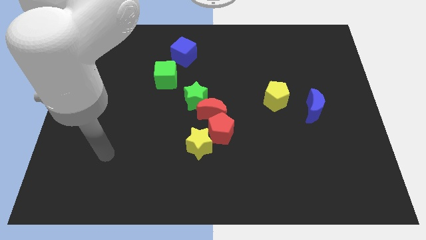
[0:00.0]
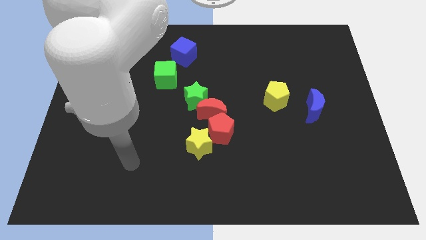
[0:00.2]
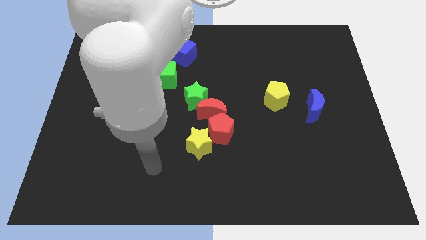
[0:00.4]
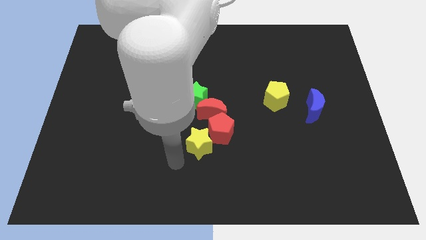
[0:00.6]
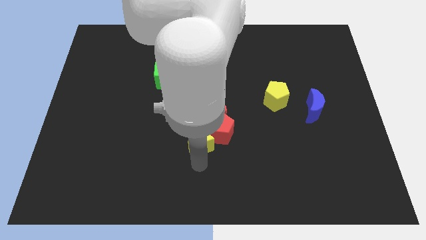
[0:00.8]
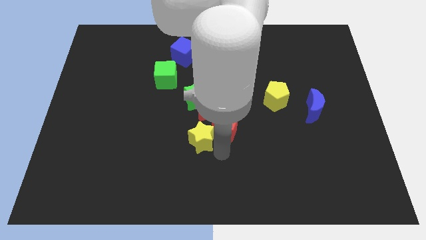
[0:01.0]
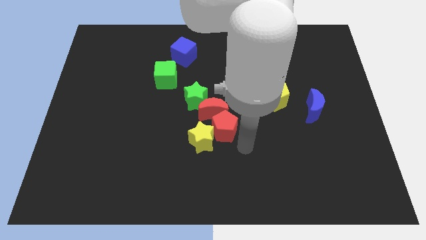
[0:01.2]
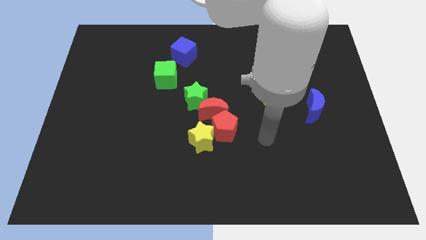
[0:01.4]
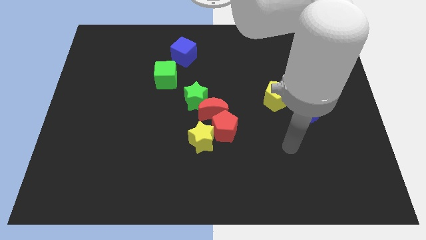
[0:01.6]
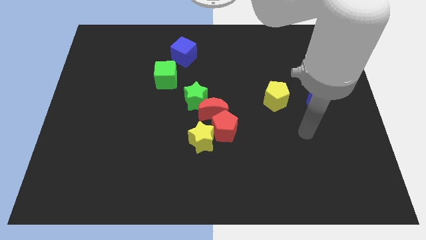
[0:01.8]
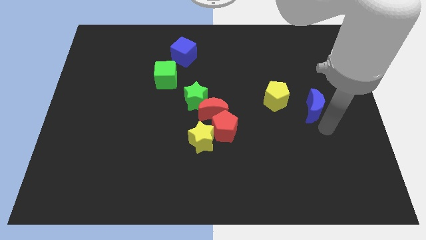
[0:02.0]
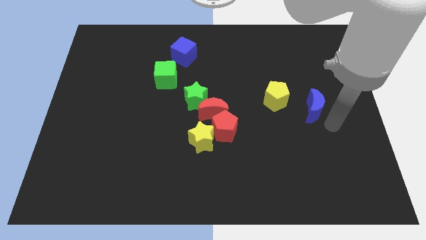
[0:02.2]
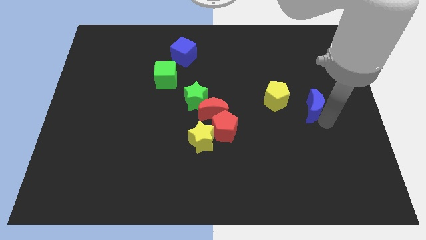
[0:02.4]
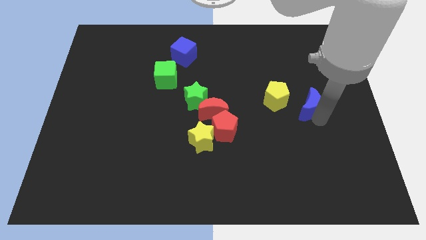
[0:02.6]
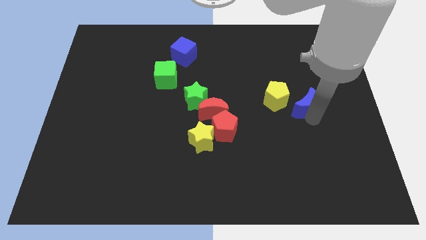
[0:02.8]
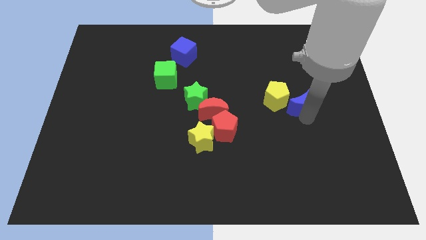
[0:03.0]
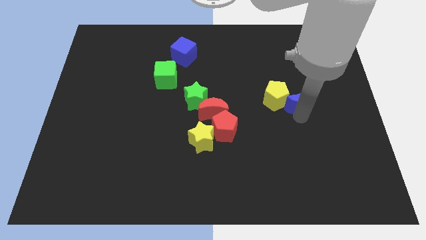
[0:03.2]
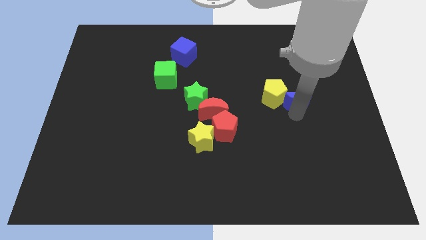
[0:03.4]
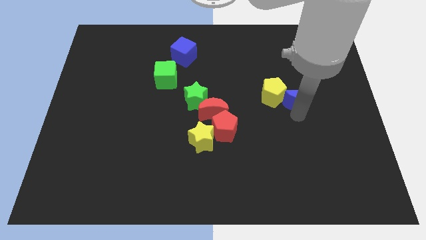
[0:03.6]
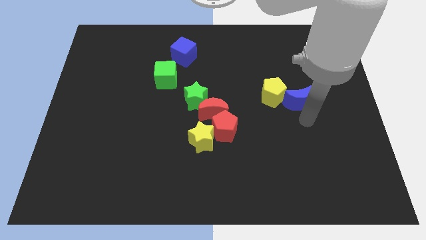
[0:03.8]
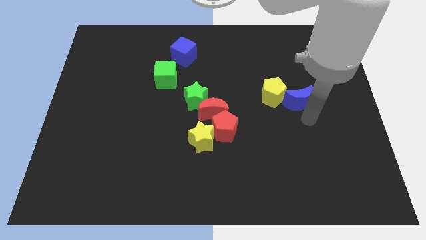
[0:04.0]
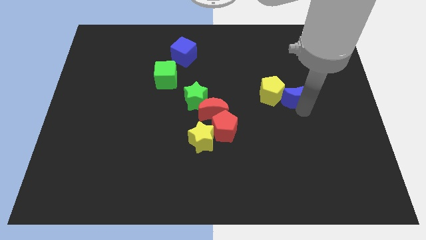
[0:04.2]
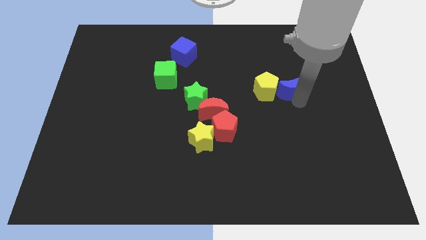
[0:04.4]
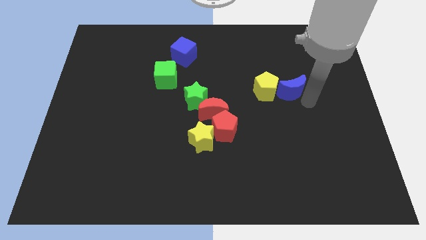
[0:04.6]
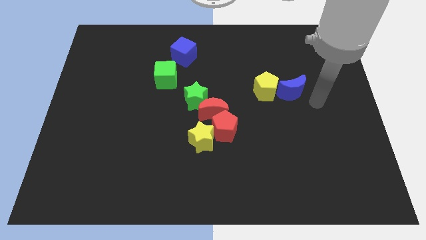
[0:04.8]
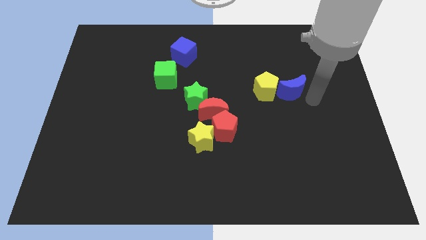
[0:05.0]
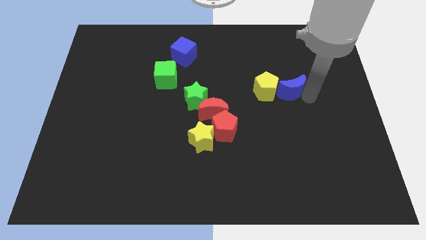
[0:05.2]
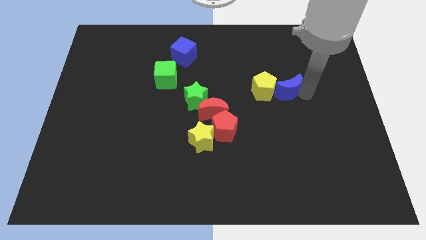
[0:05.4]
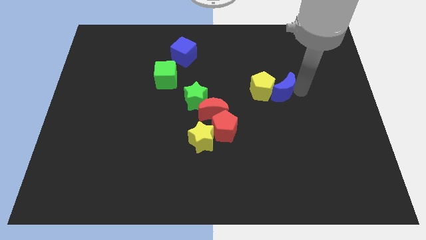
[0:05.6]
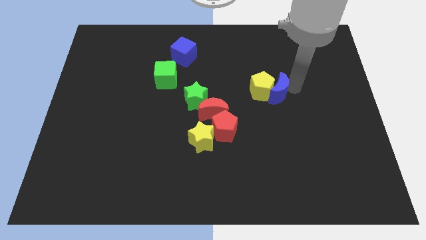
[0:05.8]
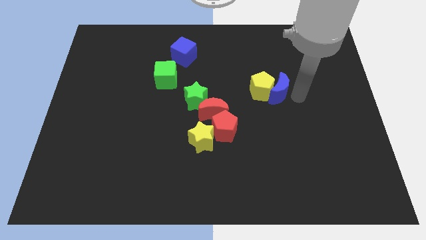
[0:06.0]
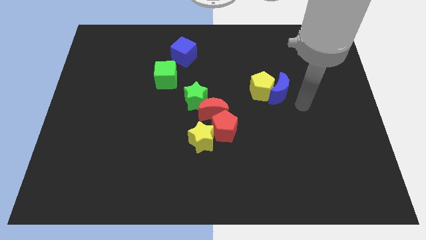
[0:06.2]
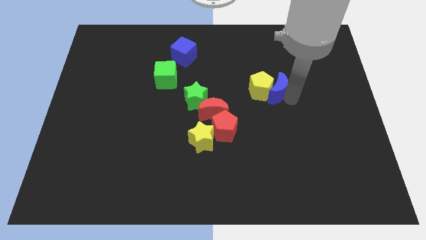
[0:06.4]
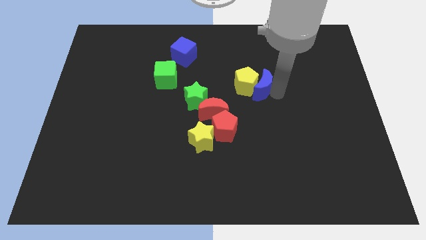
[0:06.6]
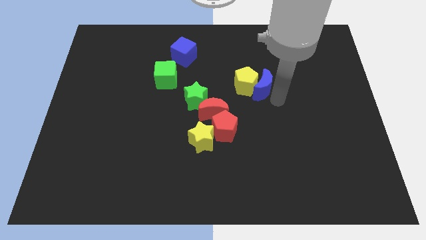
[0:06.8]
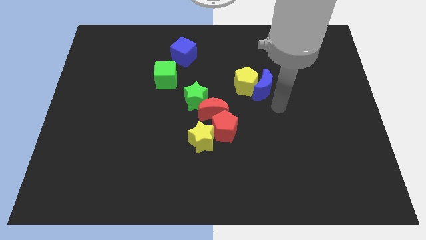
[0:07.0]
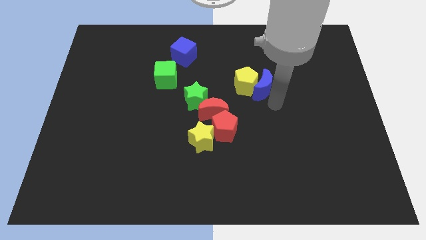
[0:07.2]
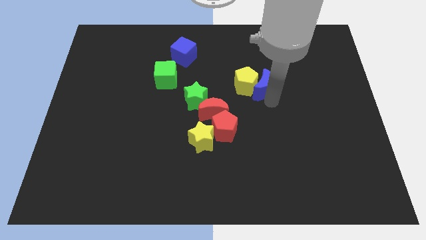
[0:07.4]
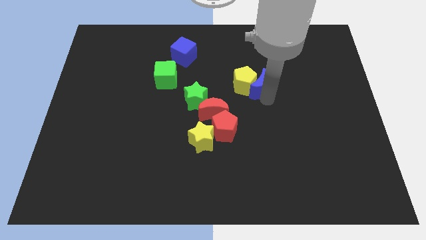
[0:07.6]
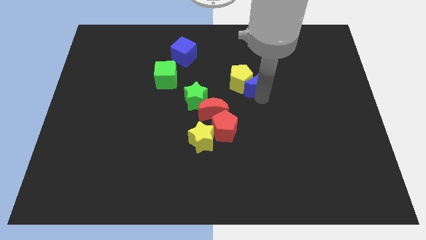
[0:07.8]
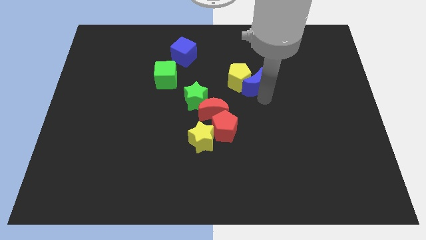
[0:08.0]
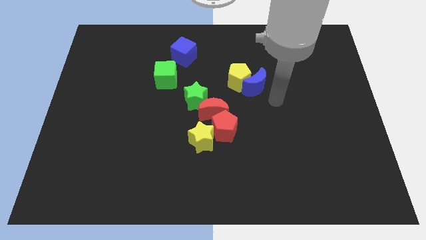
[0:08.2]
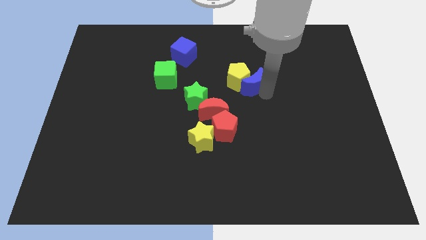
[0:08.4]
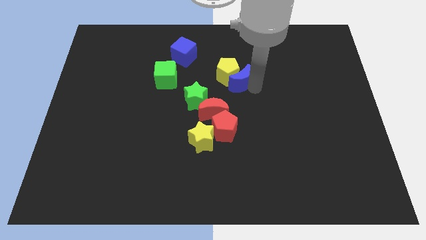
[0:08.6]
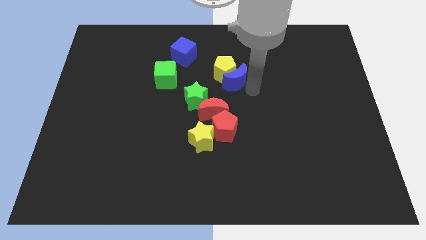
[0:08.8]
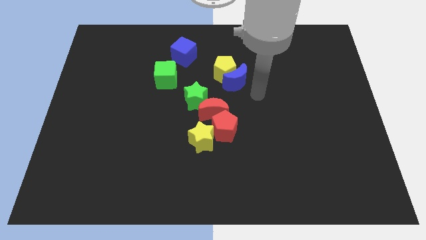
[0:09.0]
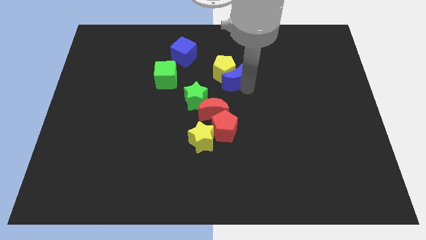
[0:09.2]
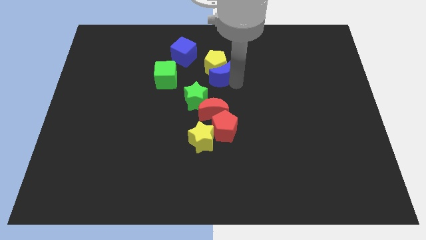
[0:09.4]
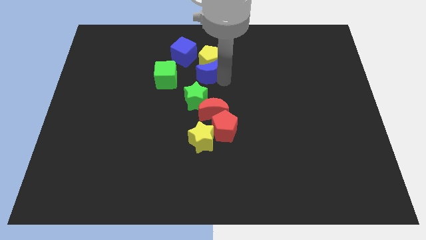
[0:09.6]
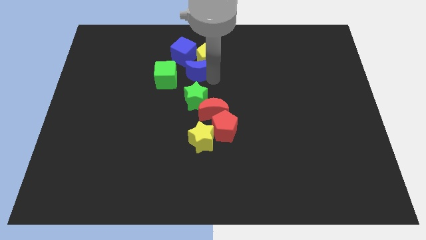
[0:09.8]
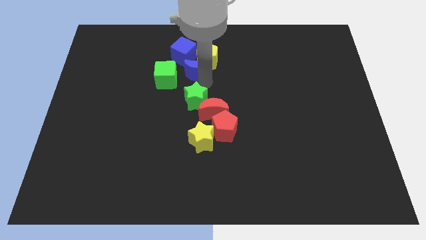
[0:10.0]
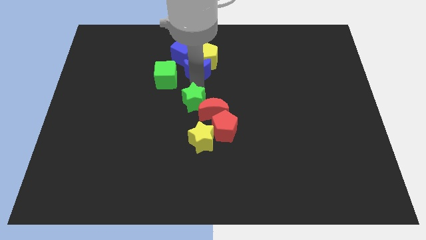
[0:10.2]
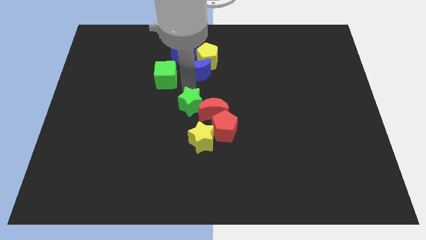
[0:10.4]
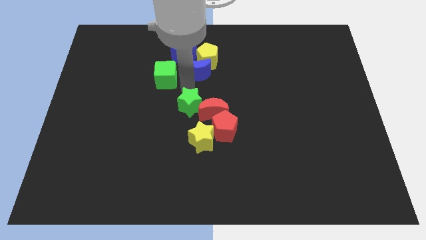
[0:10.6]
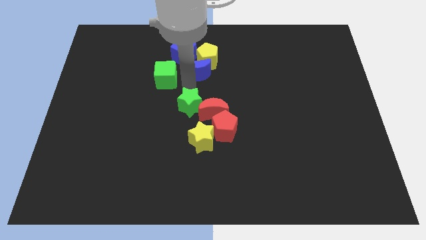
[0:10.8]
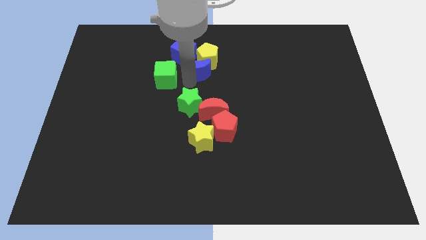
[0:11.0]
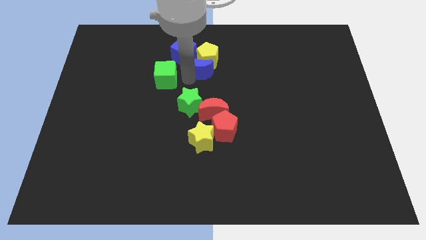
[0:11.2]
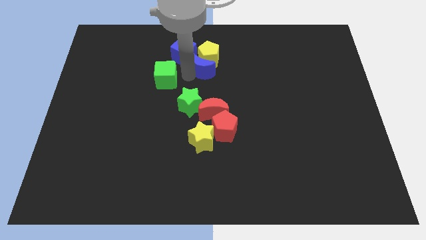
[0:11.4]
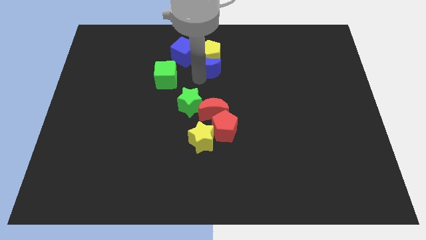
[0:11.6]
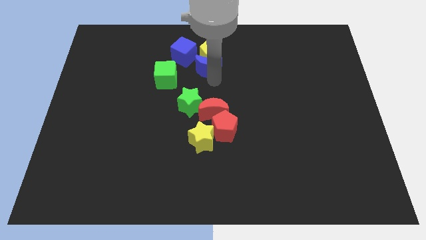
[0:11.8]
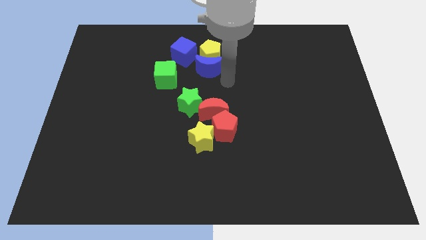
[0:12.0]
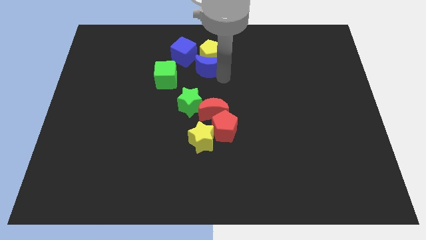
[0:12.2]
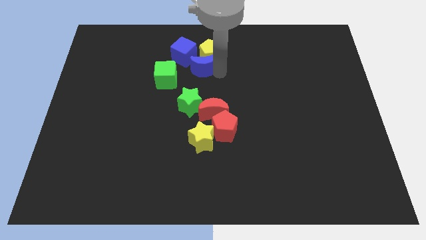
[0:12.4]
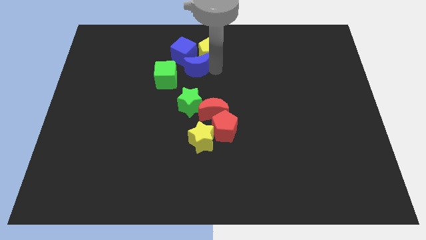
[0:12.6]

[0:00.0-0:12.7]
put the blue moon close to the blue cube
